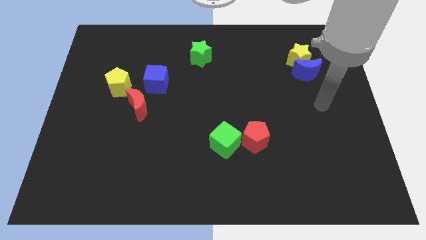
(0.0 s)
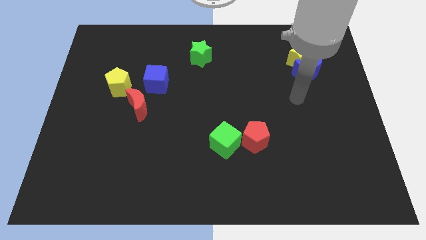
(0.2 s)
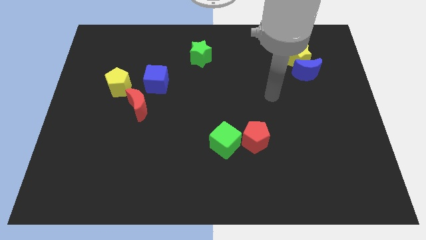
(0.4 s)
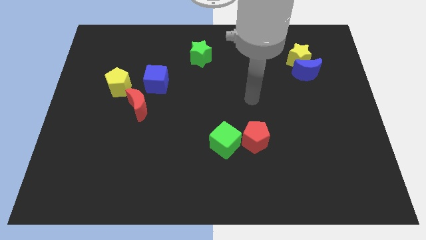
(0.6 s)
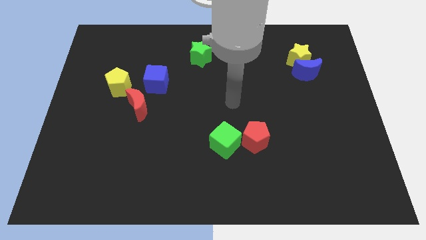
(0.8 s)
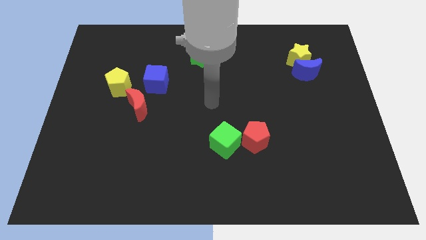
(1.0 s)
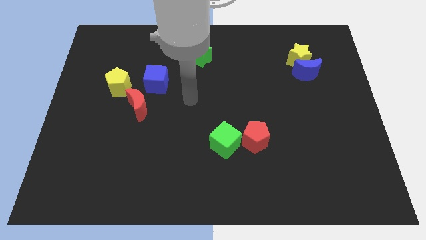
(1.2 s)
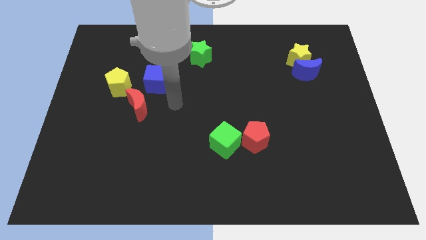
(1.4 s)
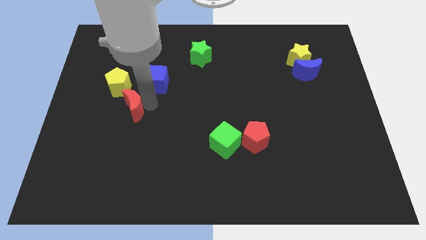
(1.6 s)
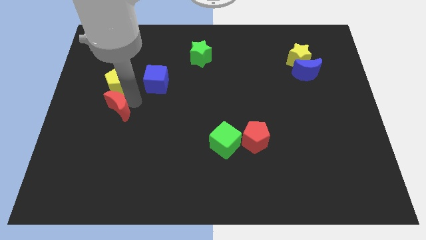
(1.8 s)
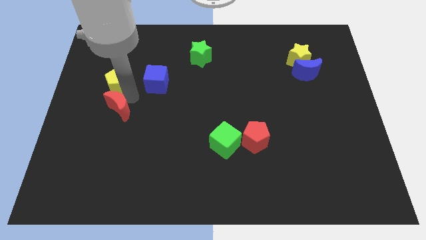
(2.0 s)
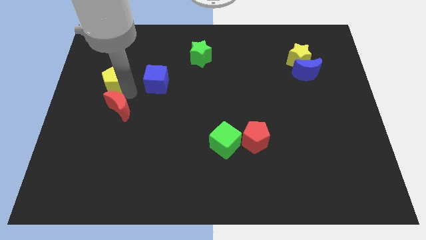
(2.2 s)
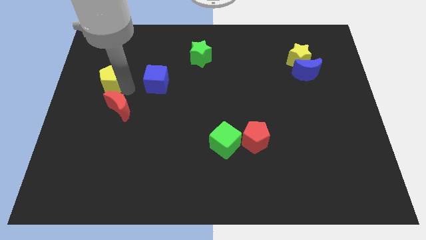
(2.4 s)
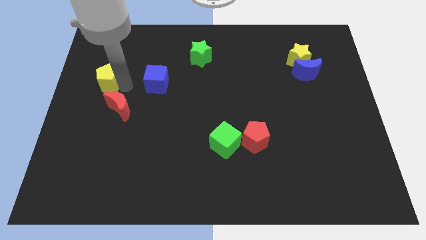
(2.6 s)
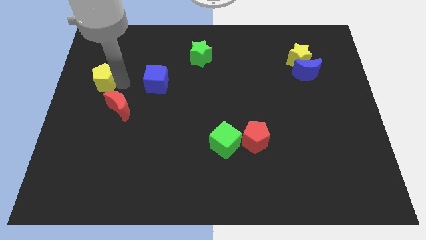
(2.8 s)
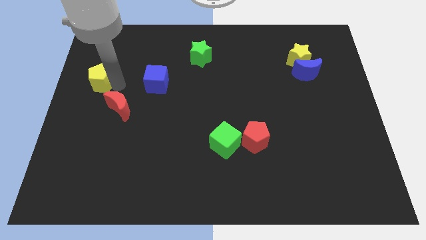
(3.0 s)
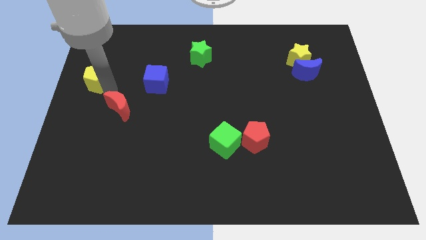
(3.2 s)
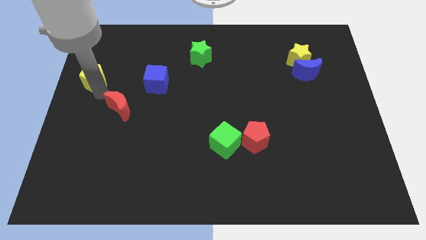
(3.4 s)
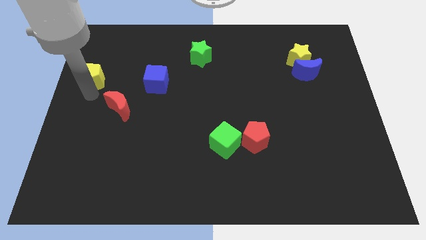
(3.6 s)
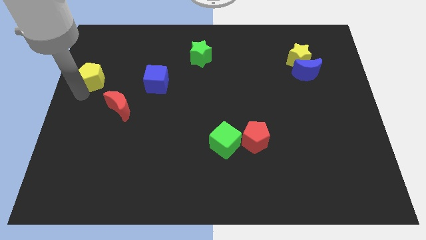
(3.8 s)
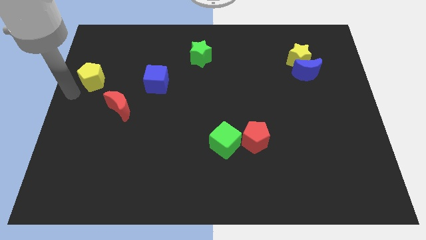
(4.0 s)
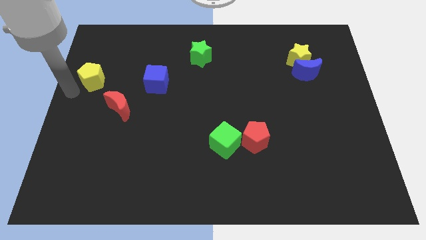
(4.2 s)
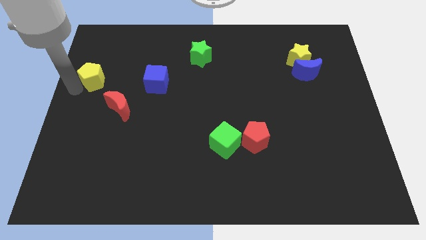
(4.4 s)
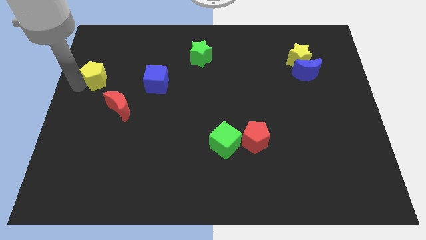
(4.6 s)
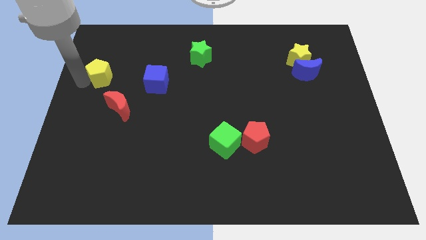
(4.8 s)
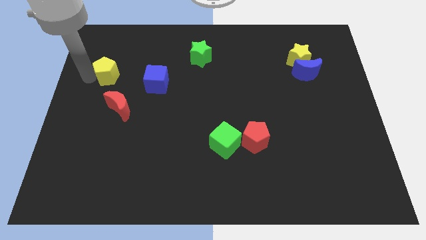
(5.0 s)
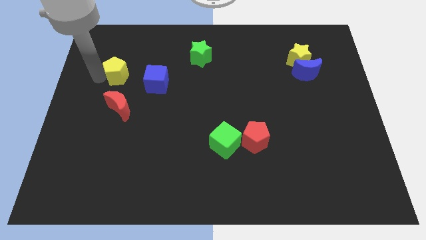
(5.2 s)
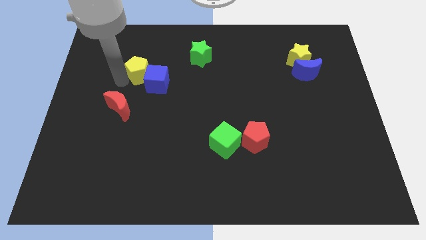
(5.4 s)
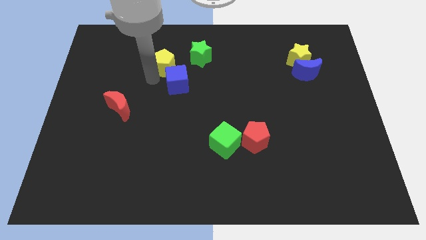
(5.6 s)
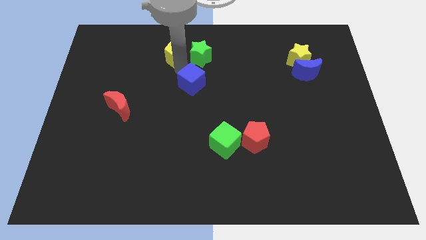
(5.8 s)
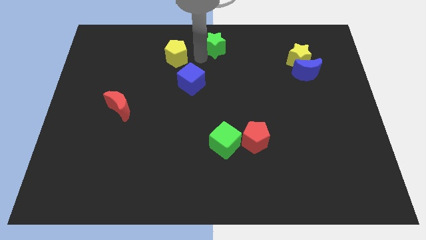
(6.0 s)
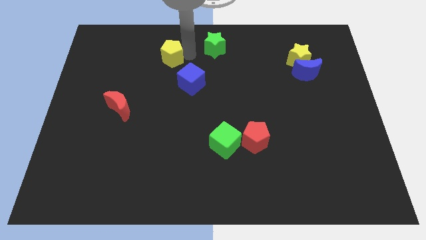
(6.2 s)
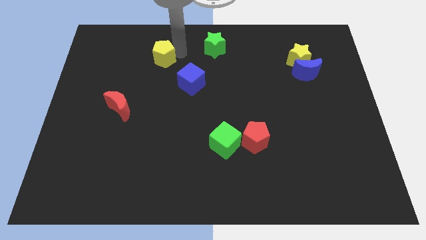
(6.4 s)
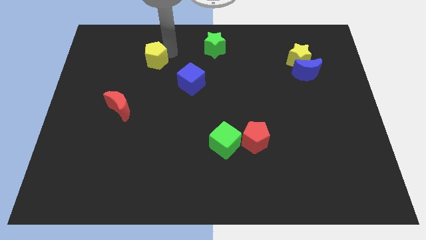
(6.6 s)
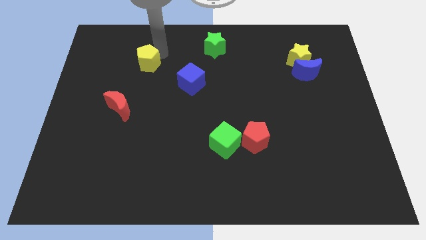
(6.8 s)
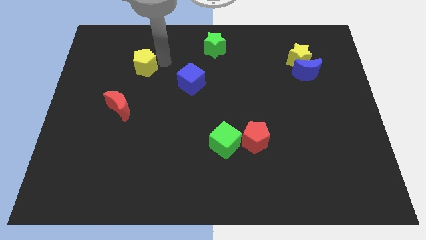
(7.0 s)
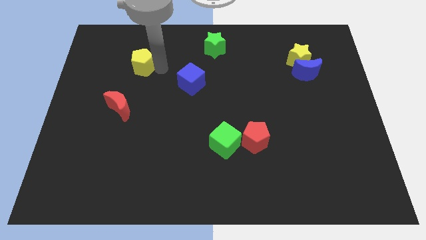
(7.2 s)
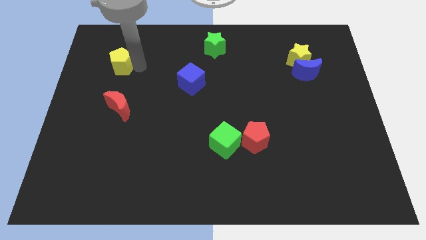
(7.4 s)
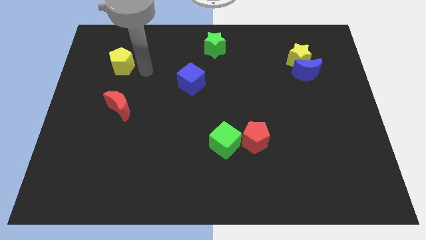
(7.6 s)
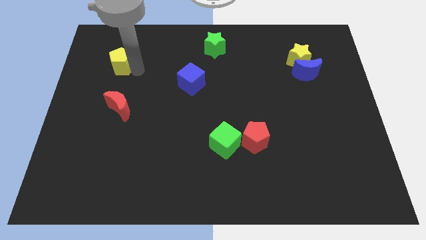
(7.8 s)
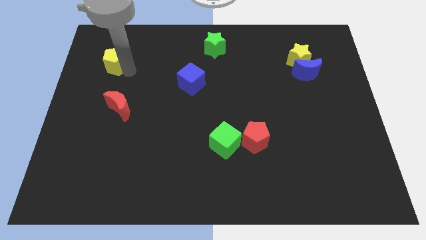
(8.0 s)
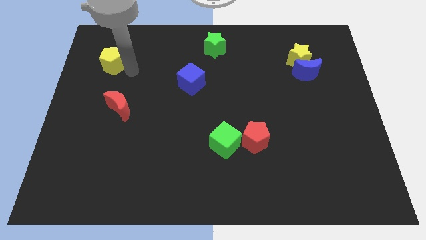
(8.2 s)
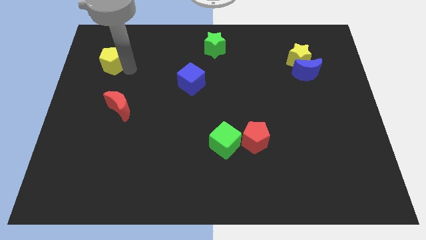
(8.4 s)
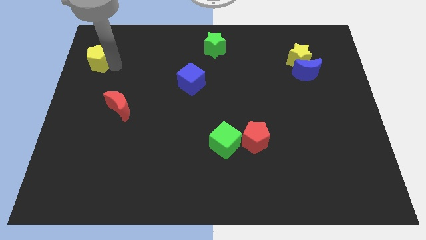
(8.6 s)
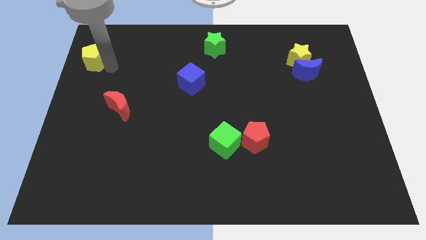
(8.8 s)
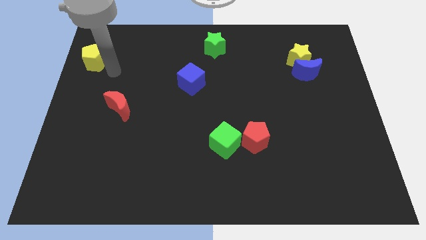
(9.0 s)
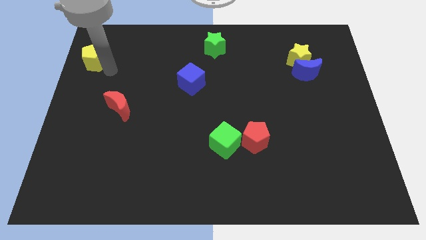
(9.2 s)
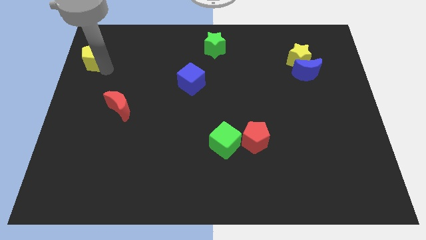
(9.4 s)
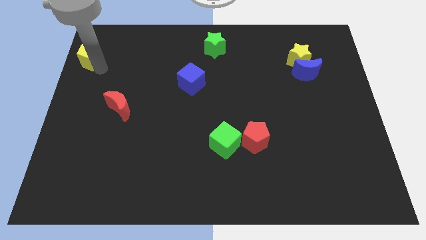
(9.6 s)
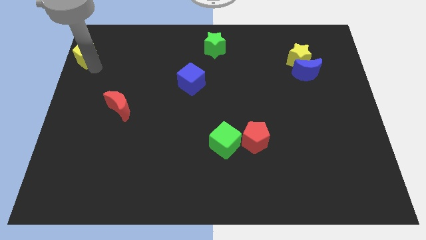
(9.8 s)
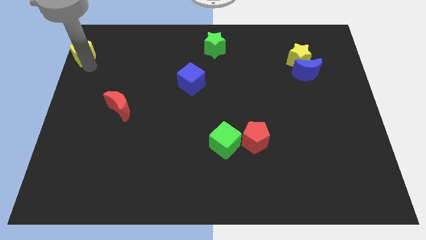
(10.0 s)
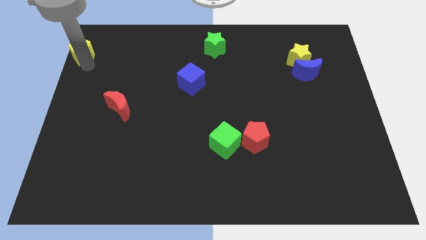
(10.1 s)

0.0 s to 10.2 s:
put the yellow pentagon to the top left of the board

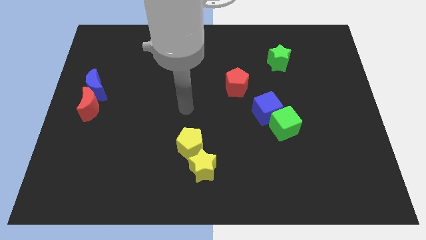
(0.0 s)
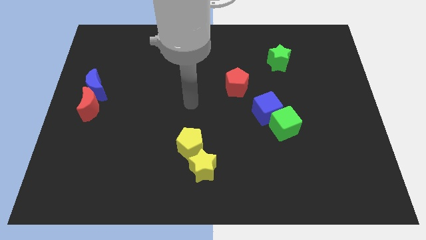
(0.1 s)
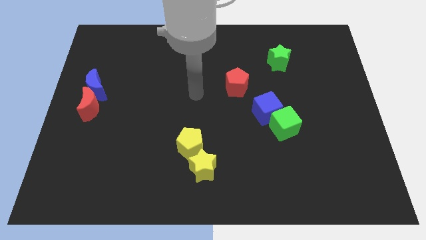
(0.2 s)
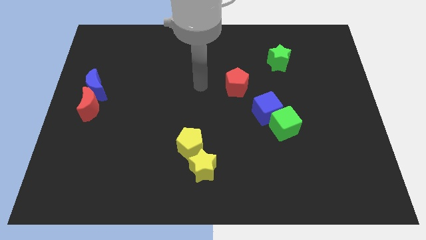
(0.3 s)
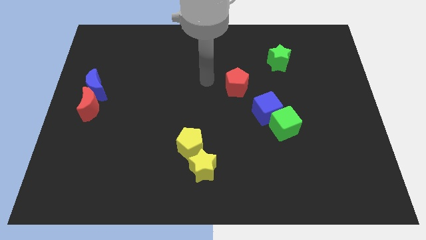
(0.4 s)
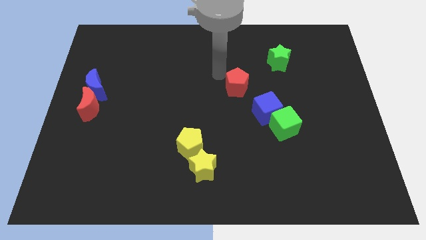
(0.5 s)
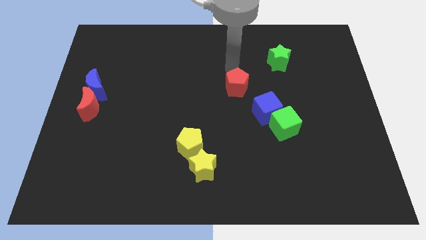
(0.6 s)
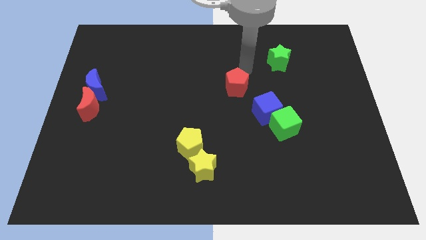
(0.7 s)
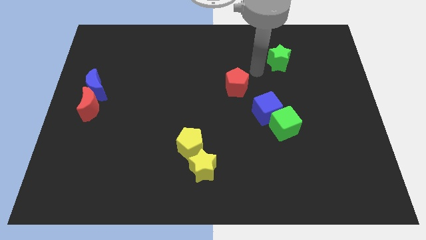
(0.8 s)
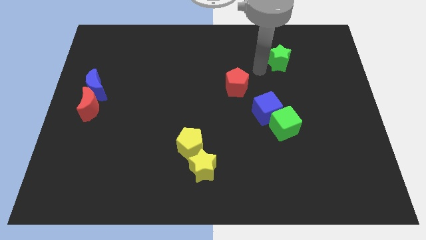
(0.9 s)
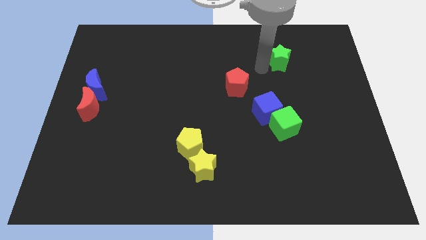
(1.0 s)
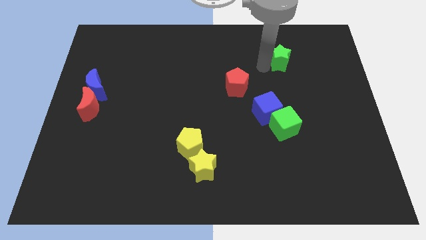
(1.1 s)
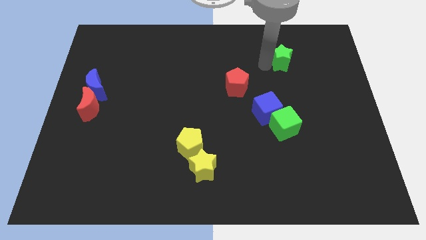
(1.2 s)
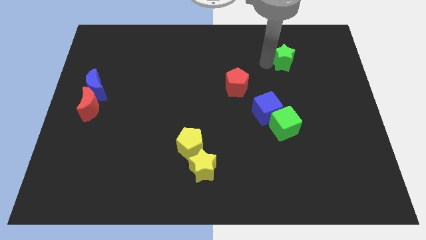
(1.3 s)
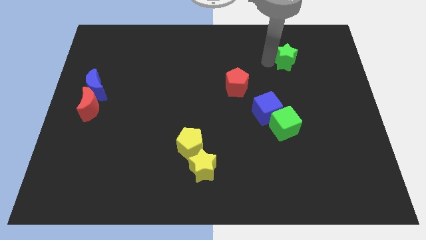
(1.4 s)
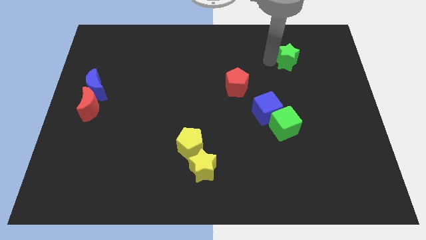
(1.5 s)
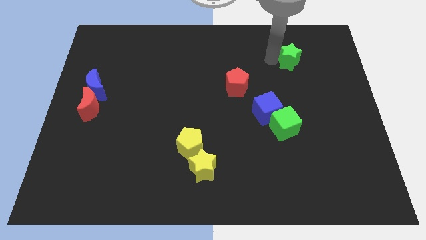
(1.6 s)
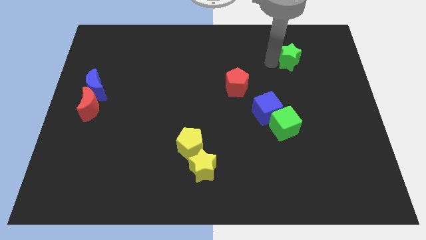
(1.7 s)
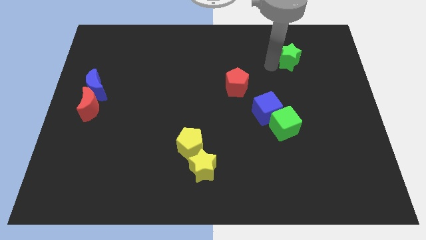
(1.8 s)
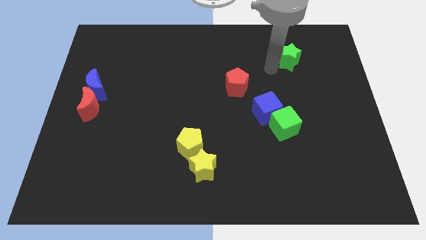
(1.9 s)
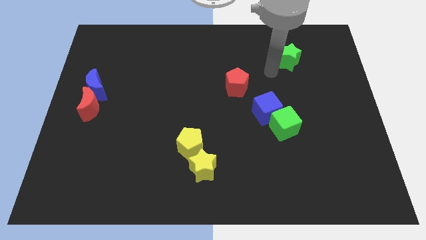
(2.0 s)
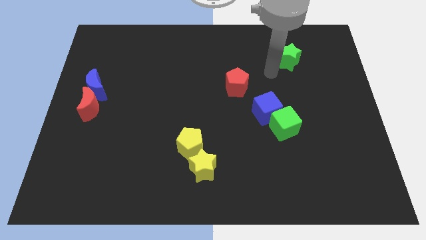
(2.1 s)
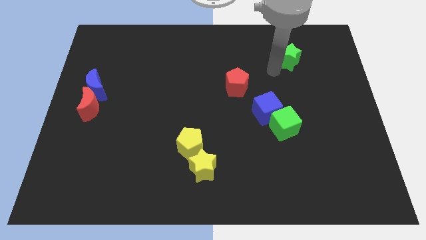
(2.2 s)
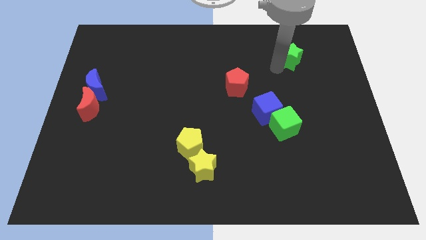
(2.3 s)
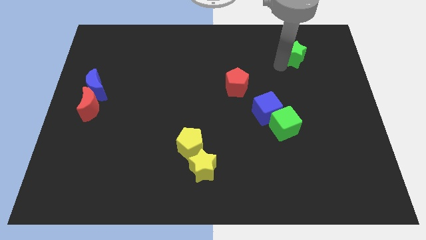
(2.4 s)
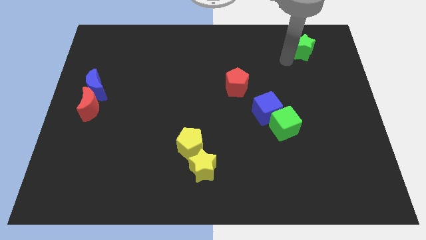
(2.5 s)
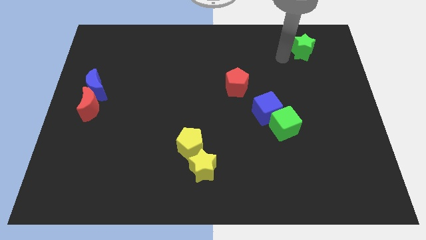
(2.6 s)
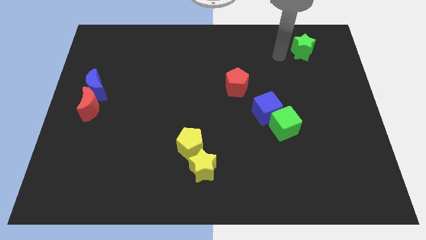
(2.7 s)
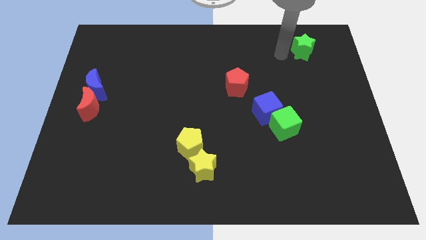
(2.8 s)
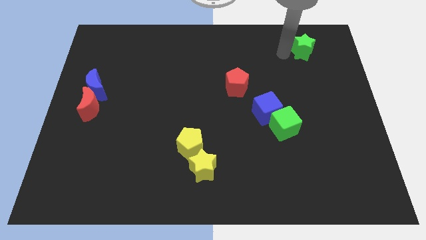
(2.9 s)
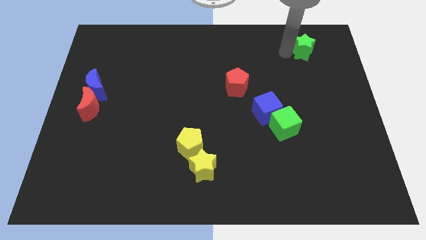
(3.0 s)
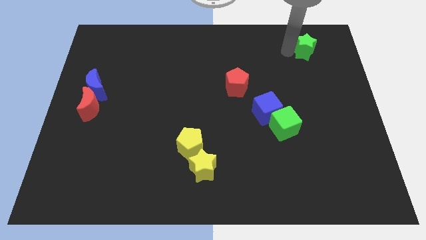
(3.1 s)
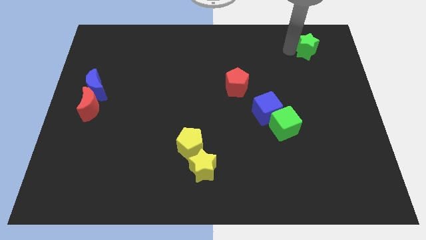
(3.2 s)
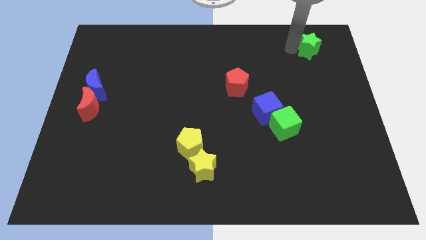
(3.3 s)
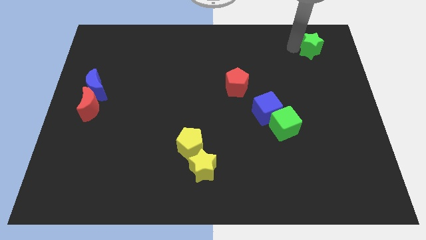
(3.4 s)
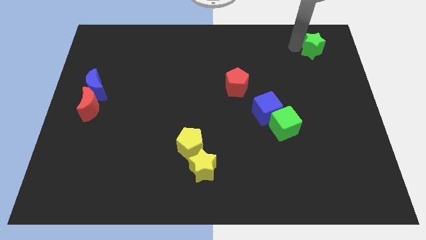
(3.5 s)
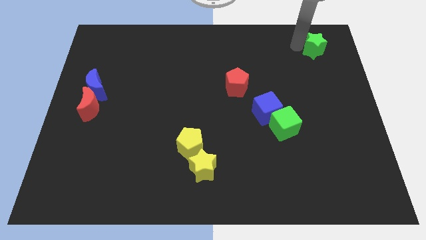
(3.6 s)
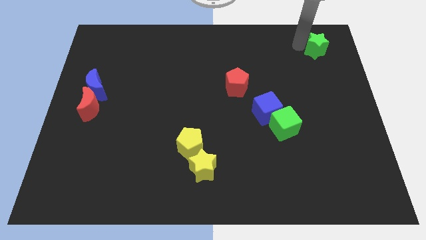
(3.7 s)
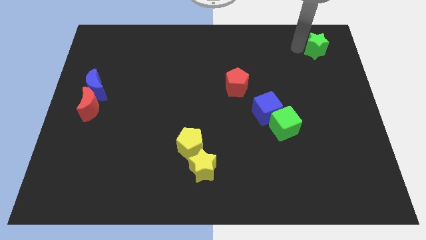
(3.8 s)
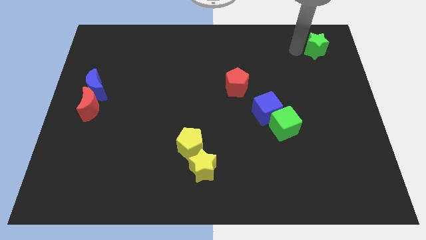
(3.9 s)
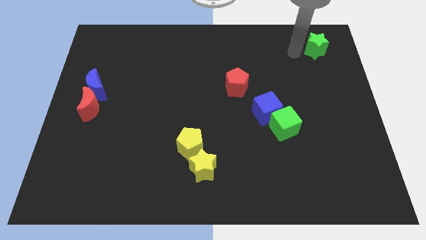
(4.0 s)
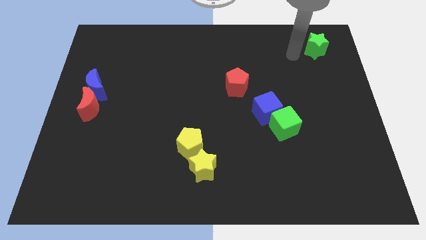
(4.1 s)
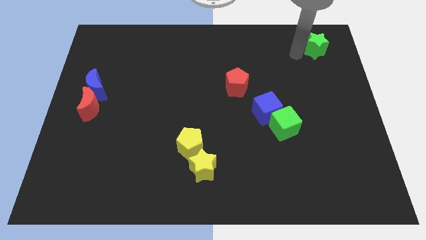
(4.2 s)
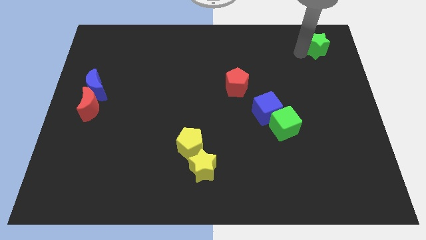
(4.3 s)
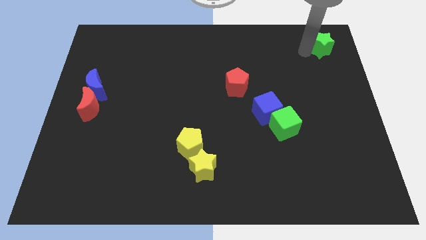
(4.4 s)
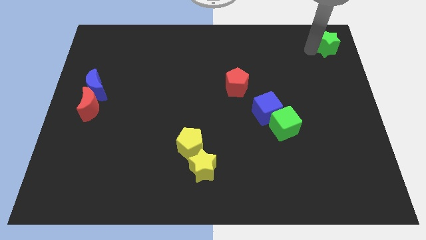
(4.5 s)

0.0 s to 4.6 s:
slide the green star to the upper right corner
